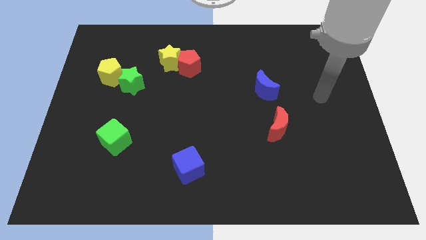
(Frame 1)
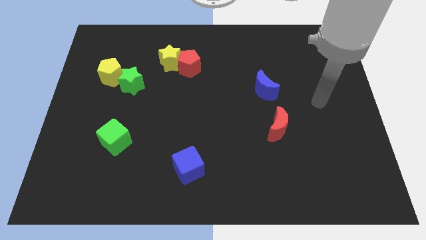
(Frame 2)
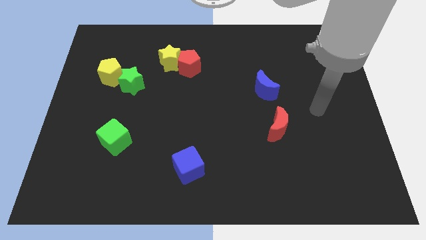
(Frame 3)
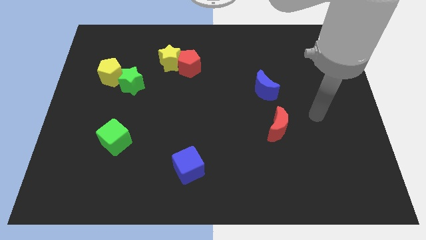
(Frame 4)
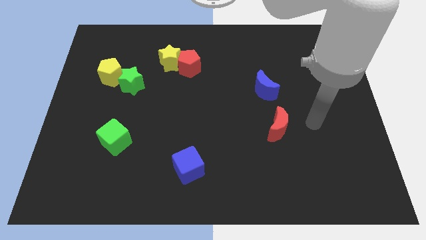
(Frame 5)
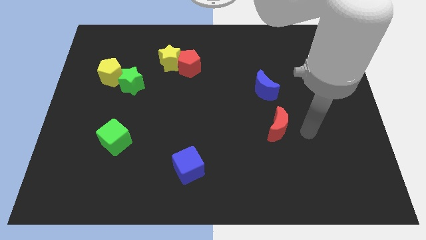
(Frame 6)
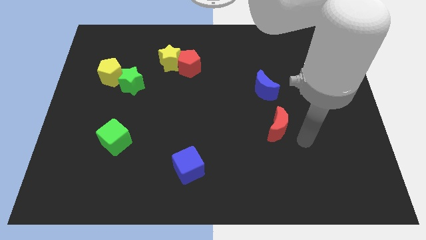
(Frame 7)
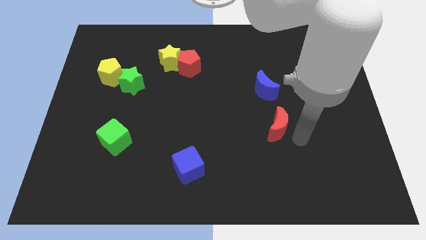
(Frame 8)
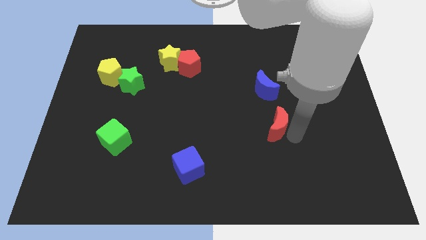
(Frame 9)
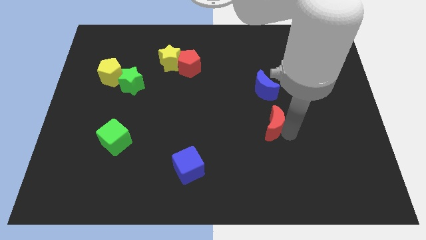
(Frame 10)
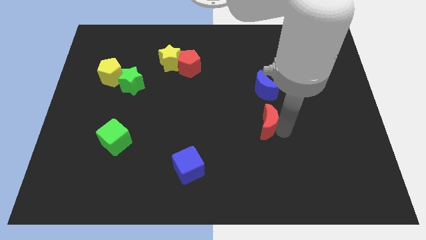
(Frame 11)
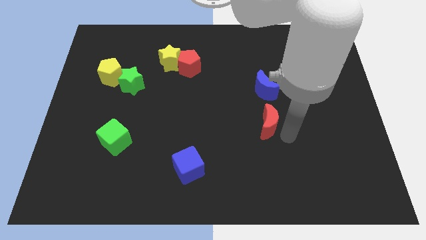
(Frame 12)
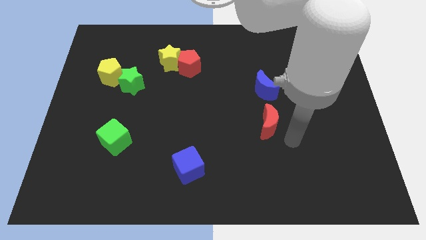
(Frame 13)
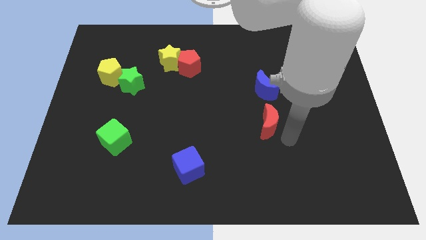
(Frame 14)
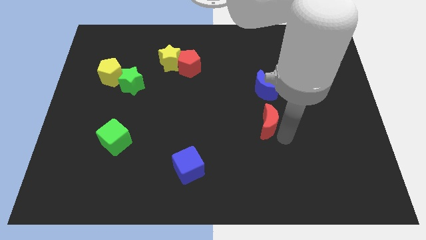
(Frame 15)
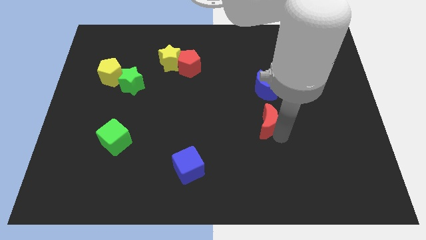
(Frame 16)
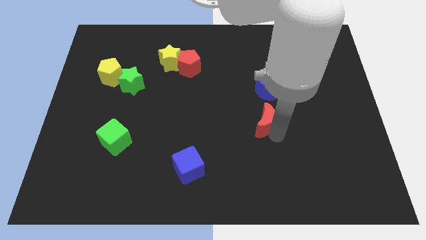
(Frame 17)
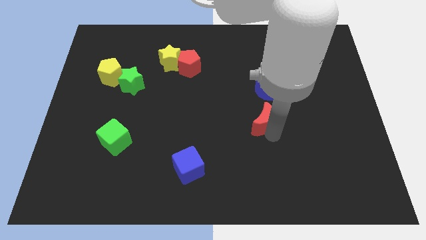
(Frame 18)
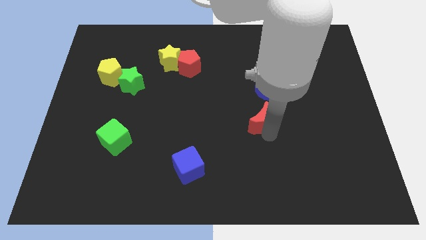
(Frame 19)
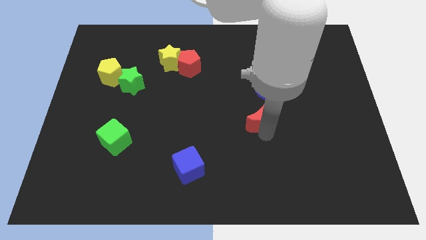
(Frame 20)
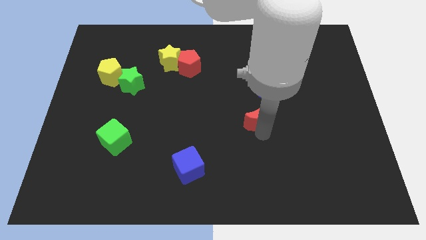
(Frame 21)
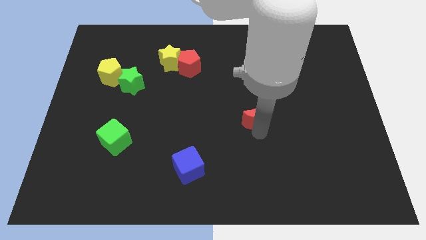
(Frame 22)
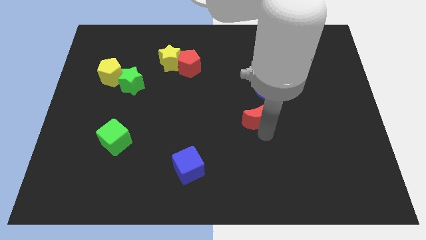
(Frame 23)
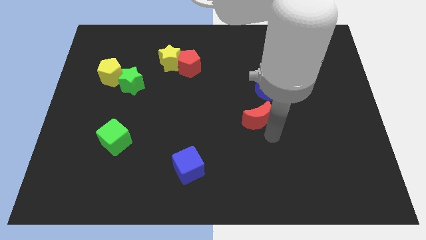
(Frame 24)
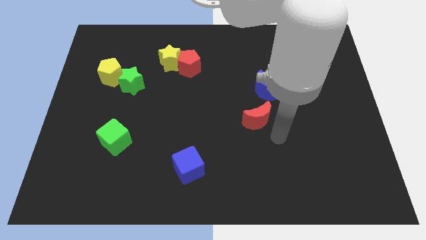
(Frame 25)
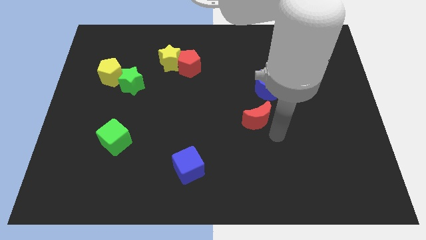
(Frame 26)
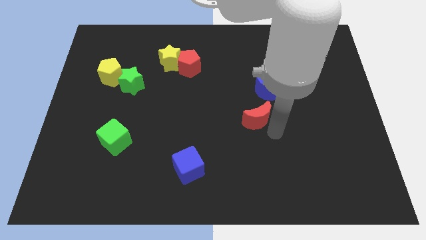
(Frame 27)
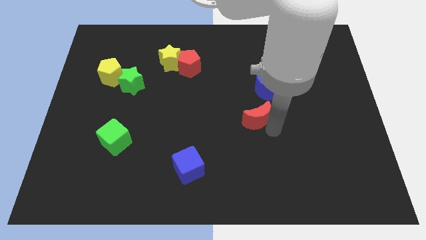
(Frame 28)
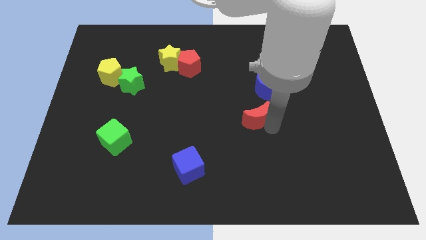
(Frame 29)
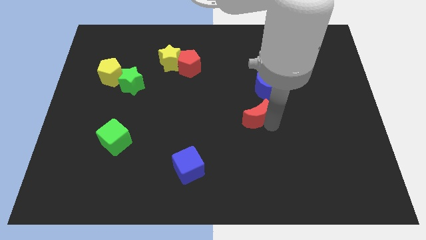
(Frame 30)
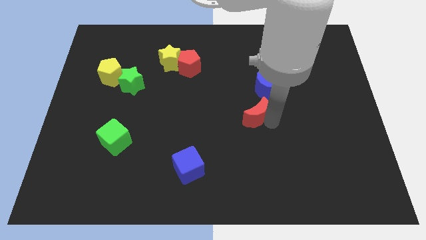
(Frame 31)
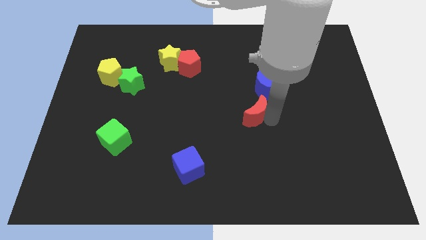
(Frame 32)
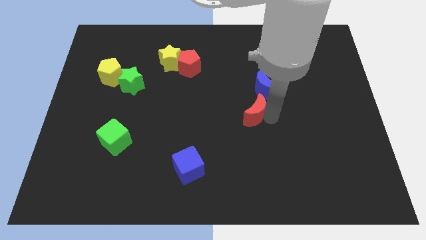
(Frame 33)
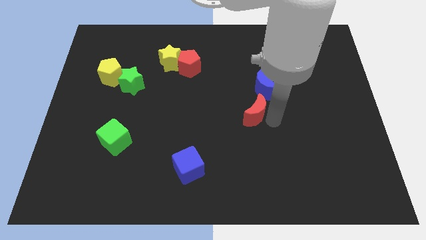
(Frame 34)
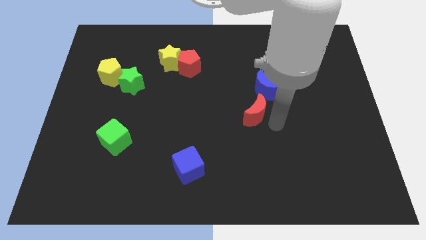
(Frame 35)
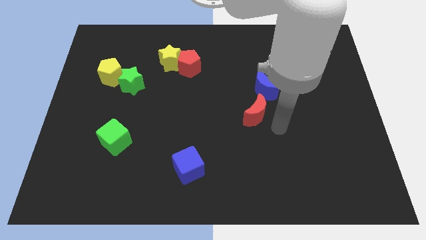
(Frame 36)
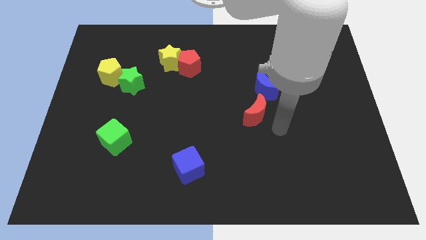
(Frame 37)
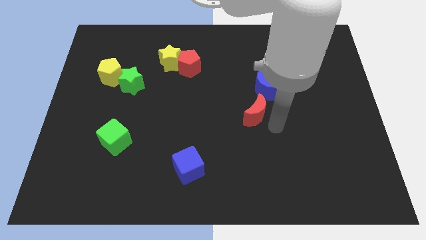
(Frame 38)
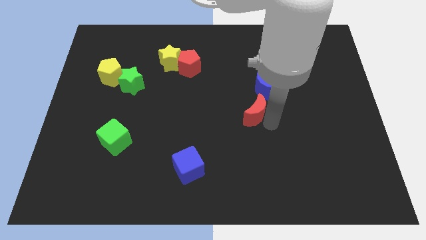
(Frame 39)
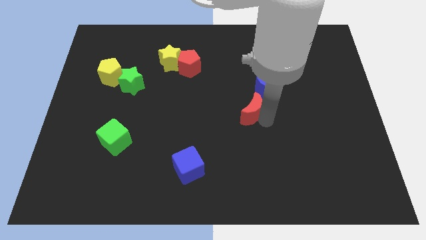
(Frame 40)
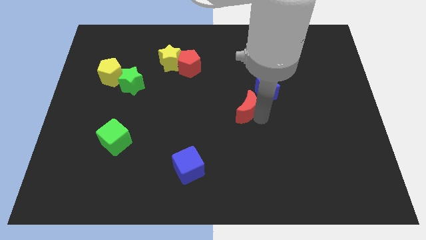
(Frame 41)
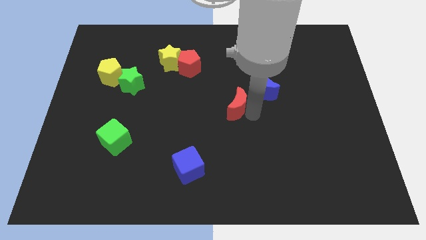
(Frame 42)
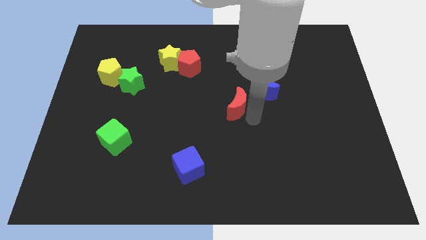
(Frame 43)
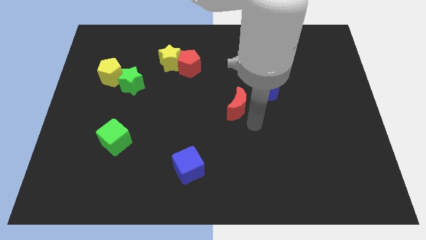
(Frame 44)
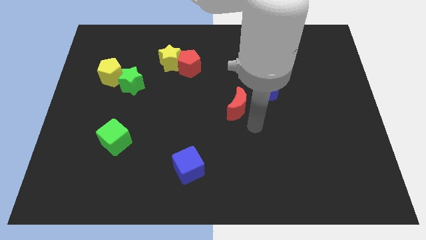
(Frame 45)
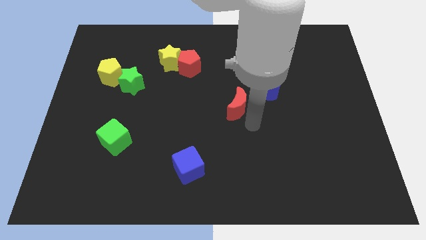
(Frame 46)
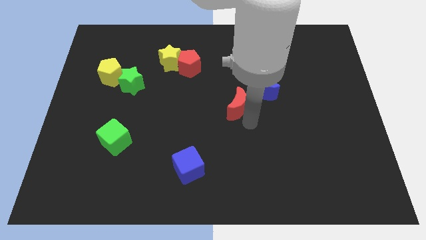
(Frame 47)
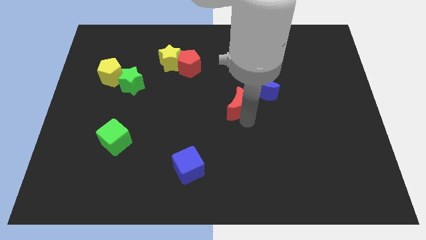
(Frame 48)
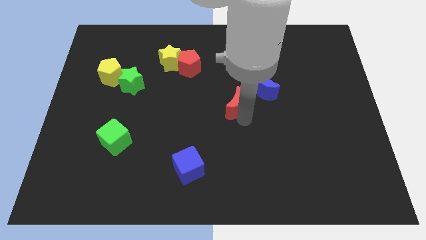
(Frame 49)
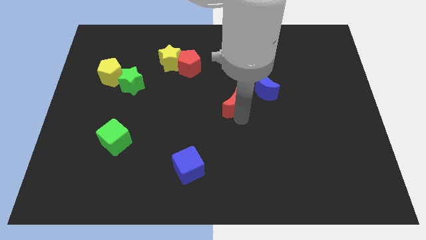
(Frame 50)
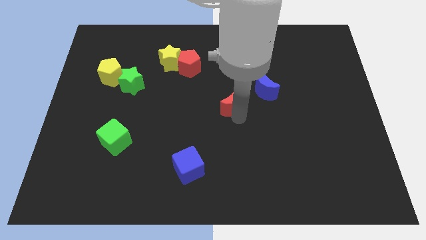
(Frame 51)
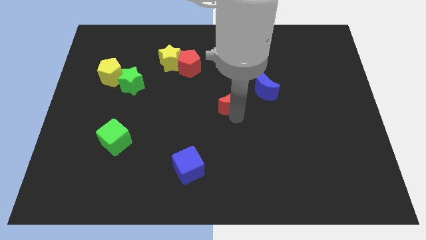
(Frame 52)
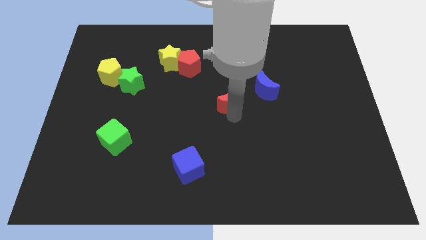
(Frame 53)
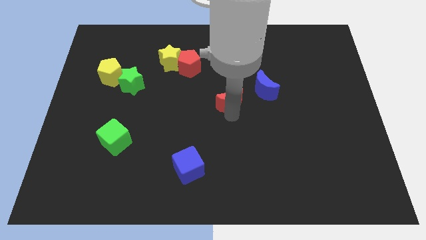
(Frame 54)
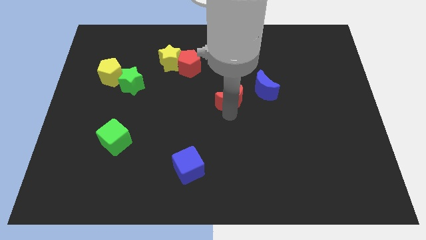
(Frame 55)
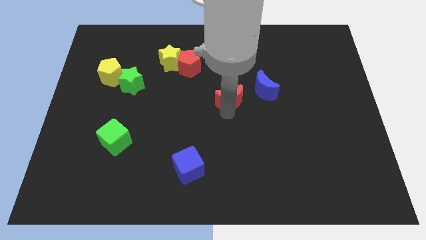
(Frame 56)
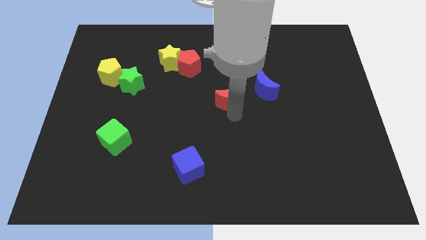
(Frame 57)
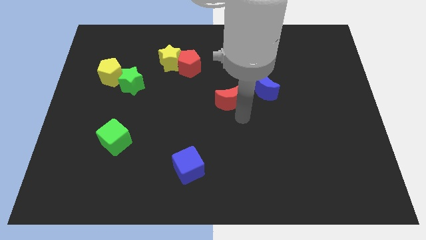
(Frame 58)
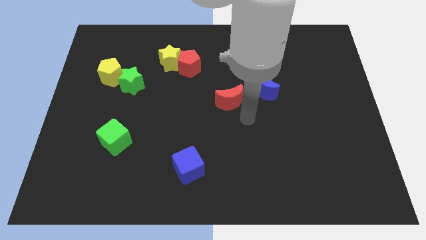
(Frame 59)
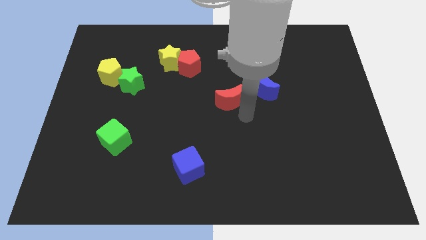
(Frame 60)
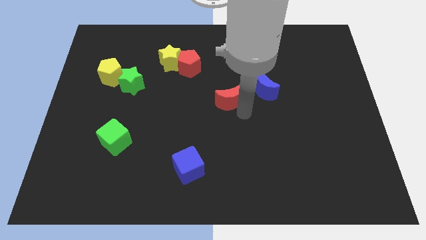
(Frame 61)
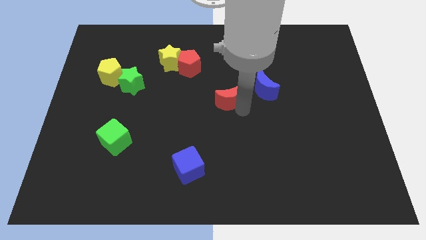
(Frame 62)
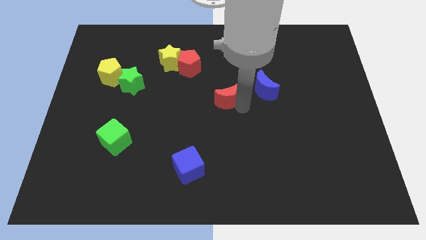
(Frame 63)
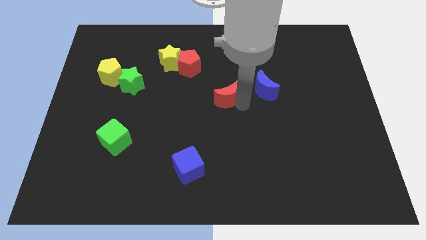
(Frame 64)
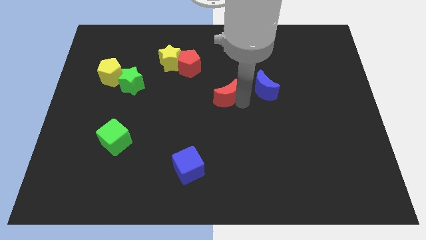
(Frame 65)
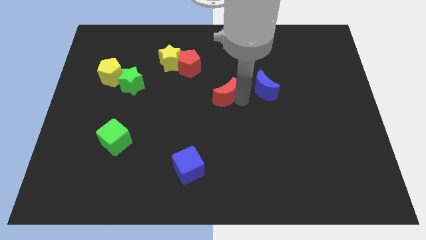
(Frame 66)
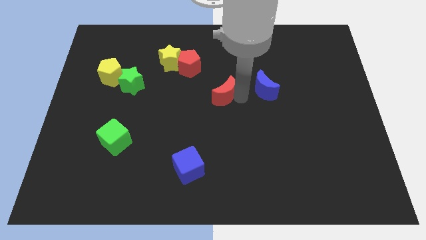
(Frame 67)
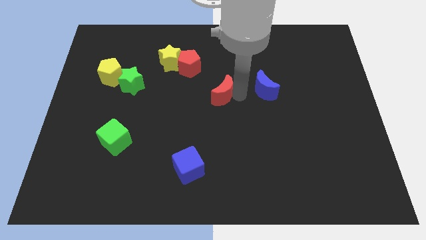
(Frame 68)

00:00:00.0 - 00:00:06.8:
slide the red moon to the bottom right of the red pentagon
